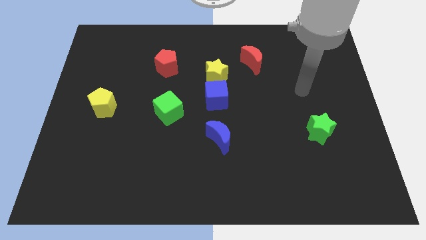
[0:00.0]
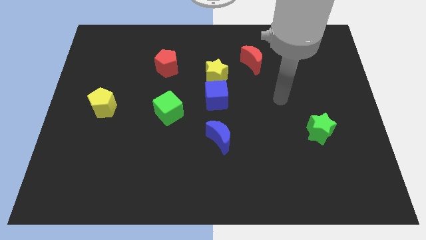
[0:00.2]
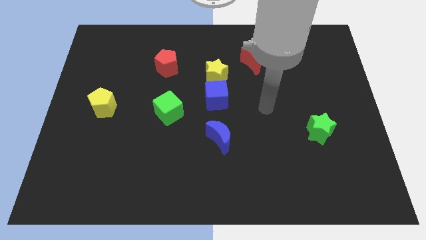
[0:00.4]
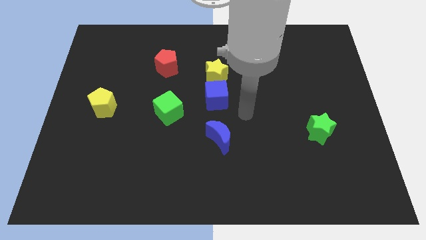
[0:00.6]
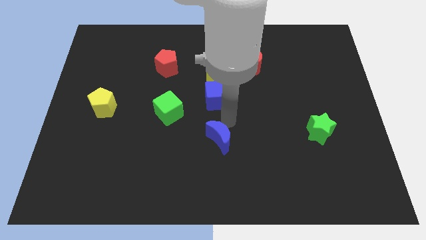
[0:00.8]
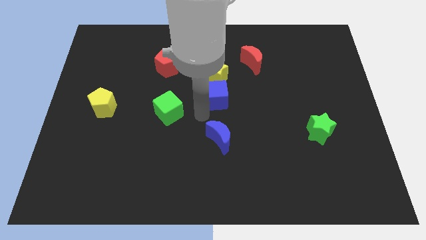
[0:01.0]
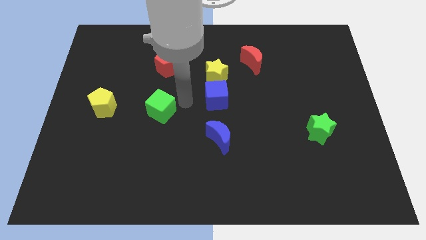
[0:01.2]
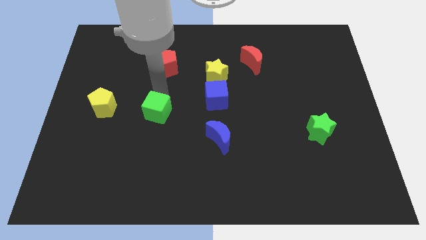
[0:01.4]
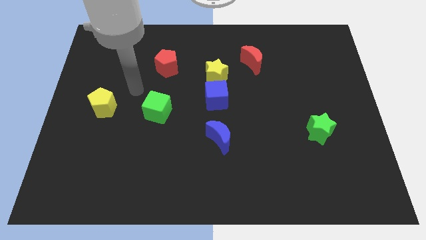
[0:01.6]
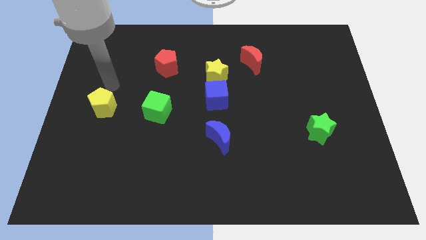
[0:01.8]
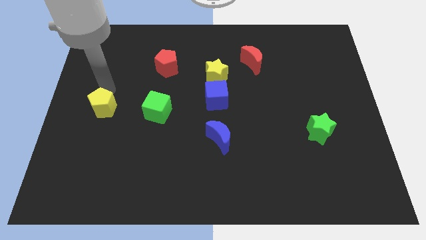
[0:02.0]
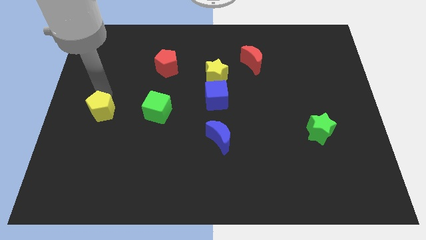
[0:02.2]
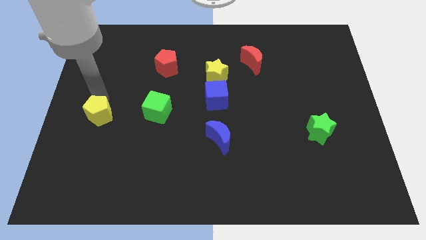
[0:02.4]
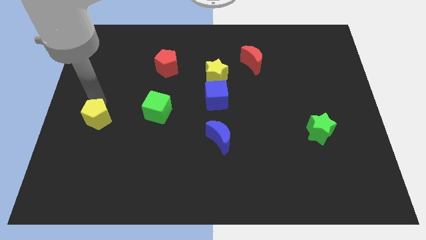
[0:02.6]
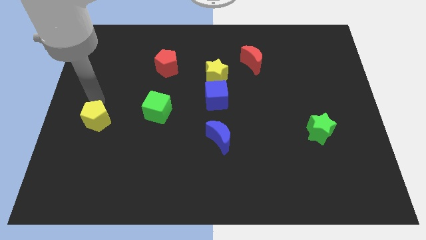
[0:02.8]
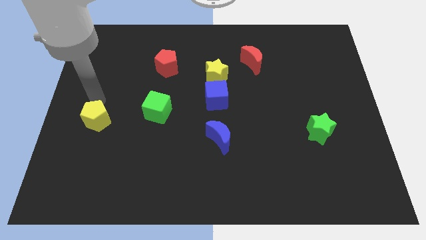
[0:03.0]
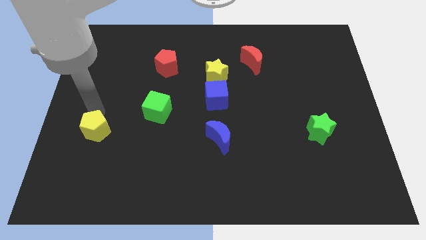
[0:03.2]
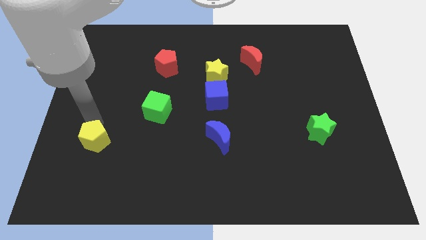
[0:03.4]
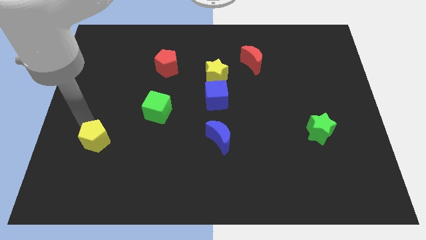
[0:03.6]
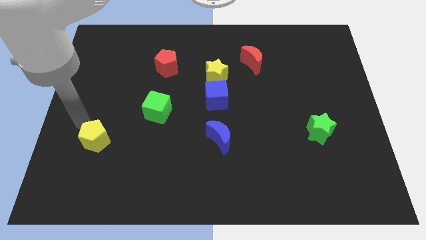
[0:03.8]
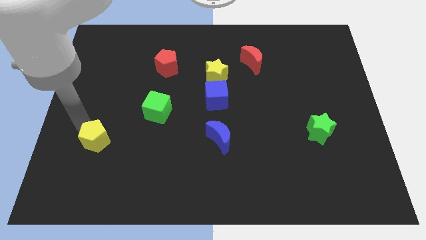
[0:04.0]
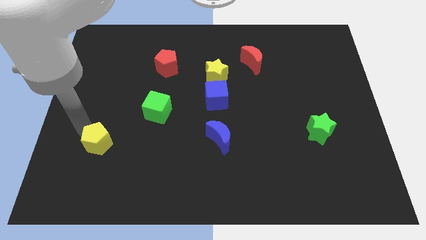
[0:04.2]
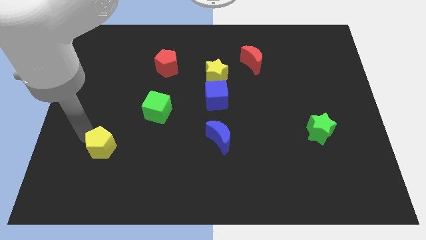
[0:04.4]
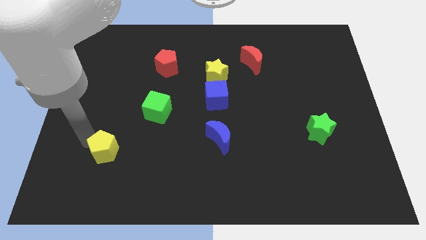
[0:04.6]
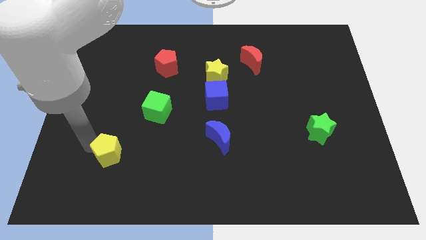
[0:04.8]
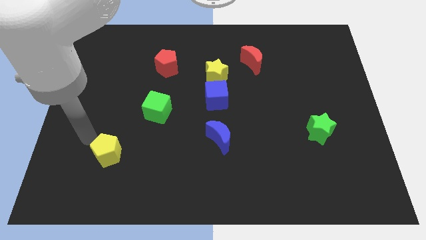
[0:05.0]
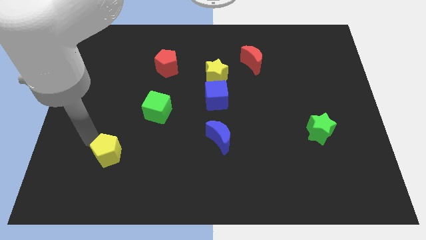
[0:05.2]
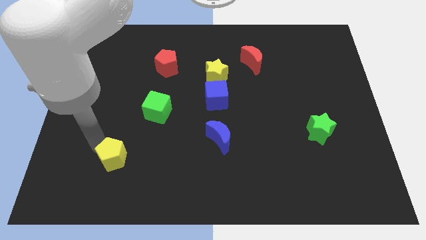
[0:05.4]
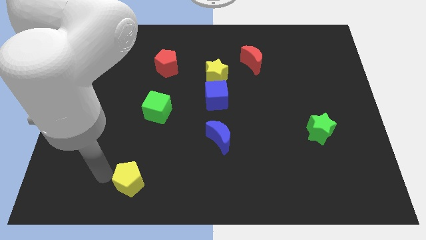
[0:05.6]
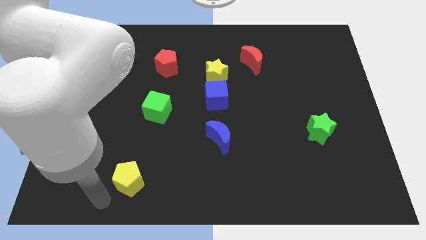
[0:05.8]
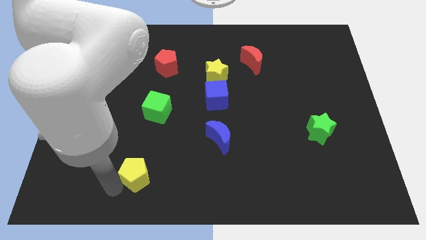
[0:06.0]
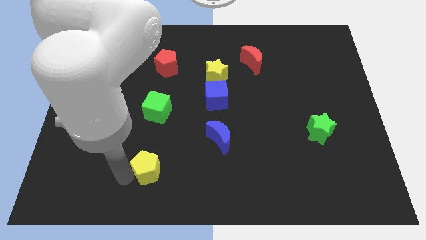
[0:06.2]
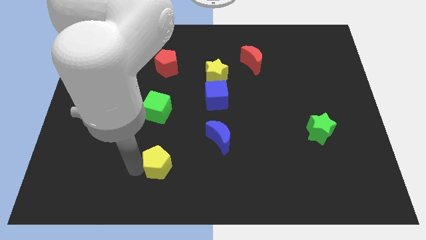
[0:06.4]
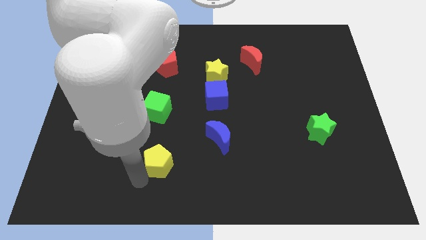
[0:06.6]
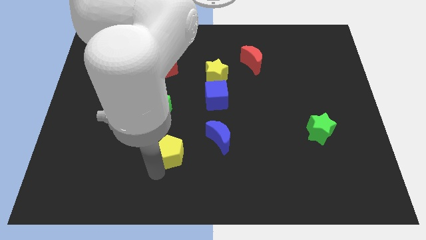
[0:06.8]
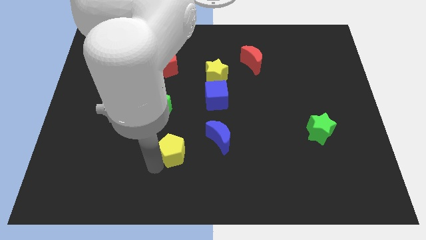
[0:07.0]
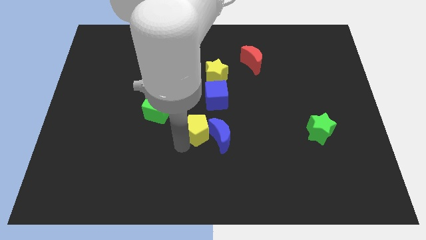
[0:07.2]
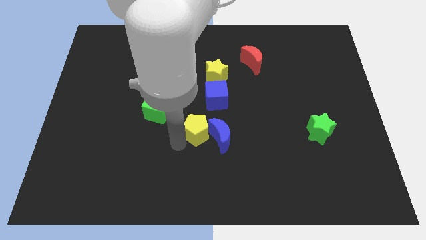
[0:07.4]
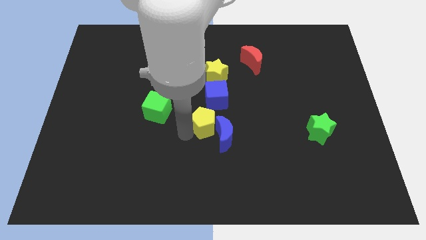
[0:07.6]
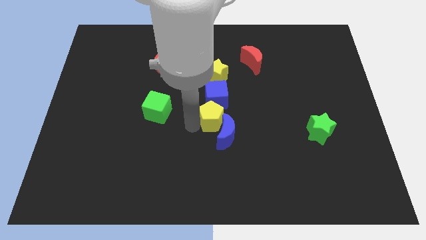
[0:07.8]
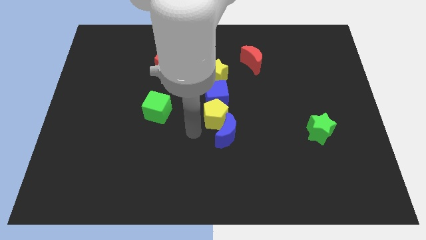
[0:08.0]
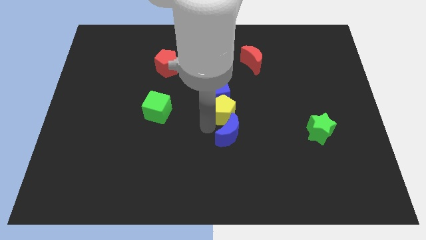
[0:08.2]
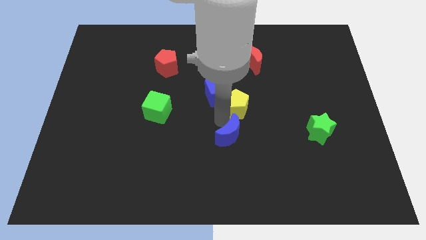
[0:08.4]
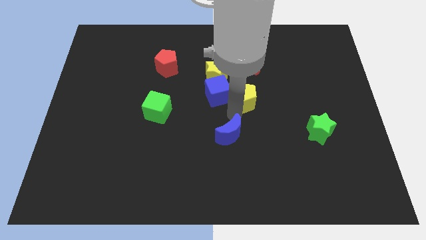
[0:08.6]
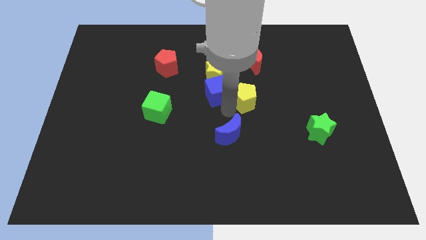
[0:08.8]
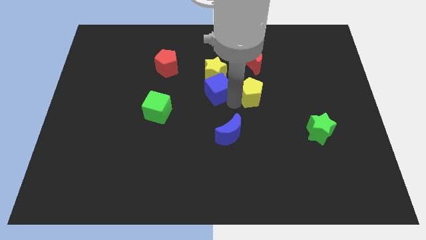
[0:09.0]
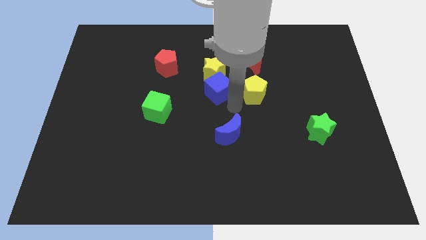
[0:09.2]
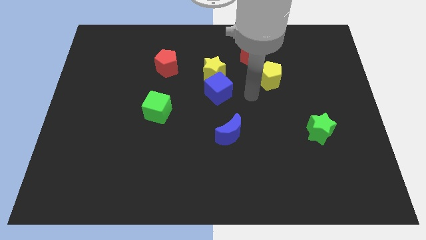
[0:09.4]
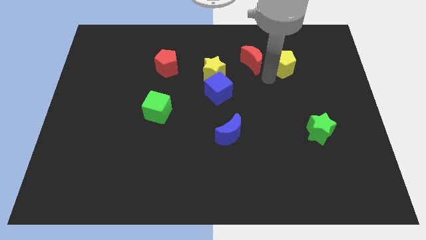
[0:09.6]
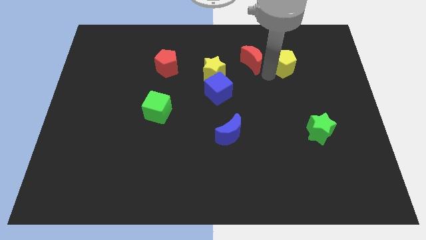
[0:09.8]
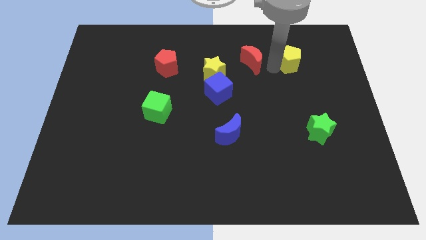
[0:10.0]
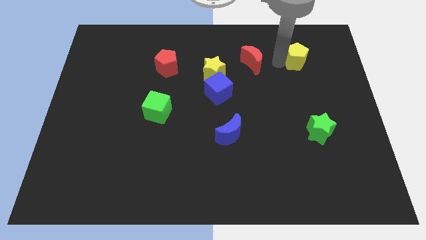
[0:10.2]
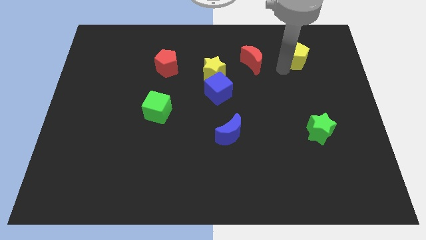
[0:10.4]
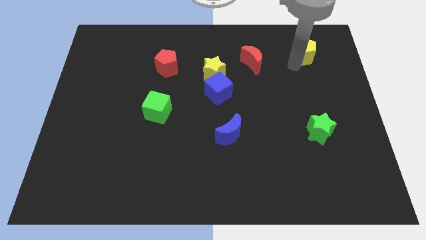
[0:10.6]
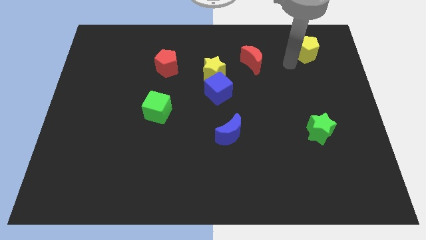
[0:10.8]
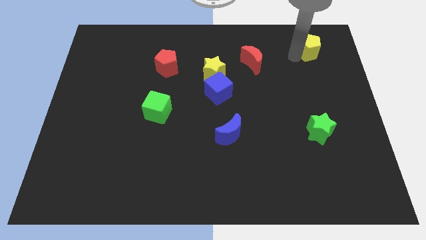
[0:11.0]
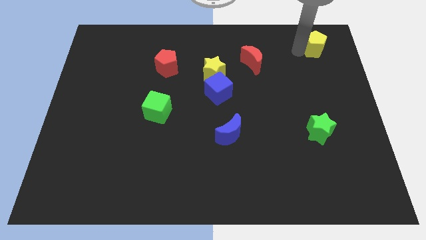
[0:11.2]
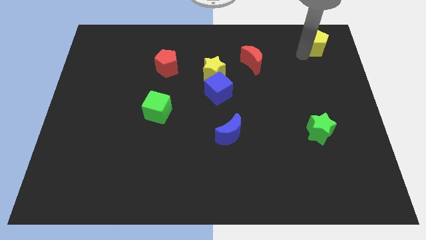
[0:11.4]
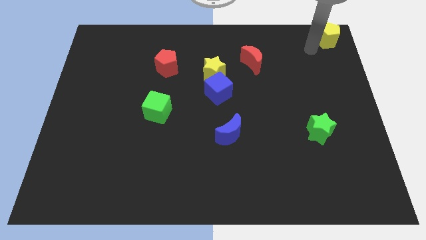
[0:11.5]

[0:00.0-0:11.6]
put the yellow pentagon to the top right corner

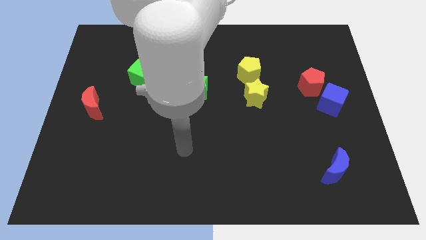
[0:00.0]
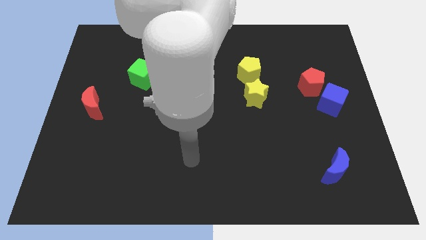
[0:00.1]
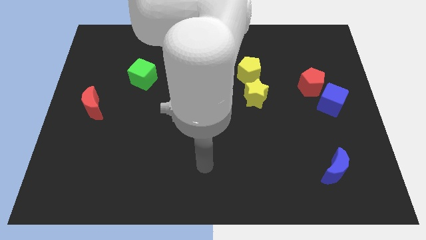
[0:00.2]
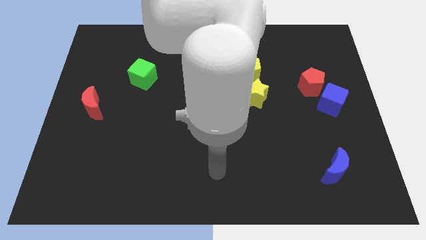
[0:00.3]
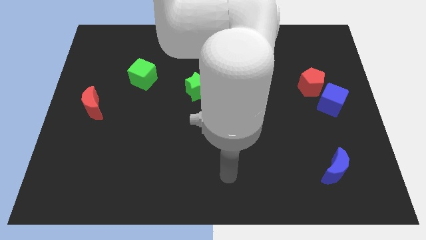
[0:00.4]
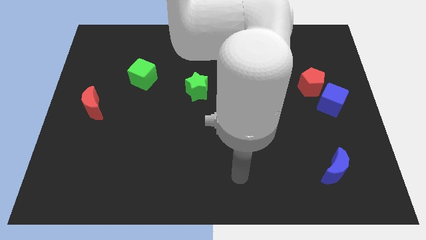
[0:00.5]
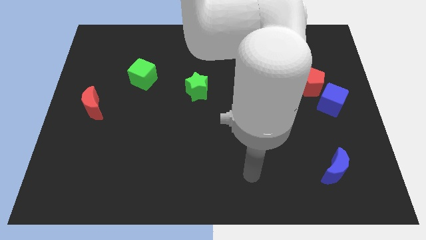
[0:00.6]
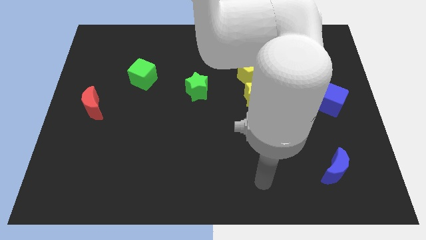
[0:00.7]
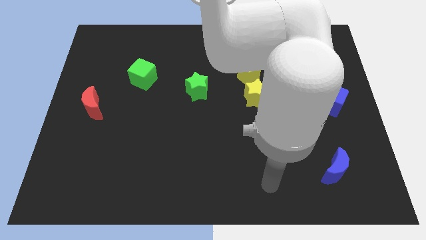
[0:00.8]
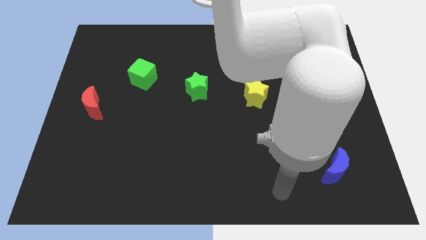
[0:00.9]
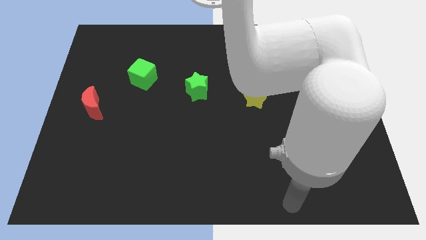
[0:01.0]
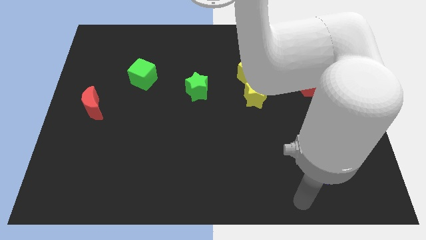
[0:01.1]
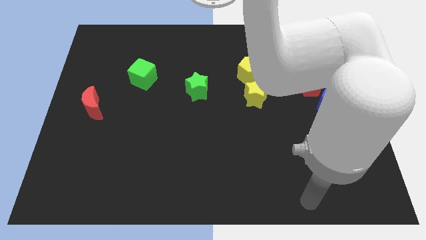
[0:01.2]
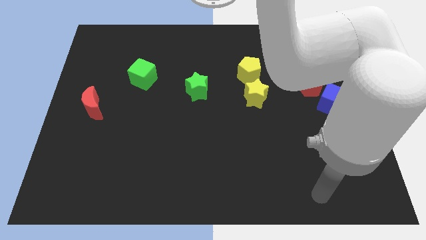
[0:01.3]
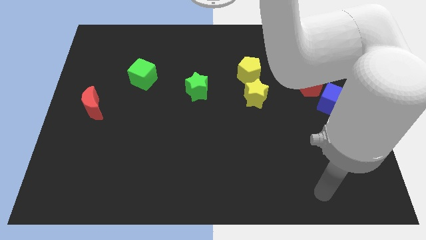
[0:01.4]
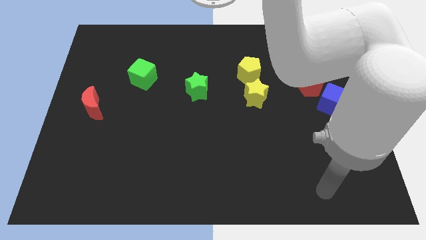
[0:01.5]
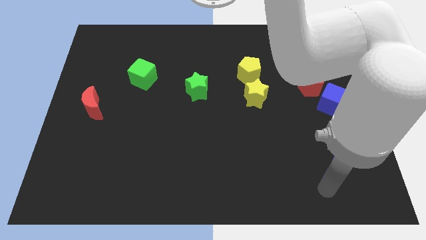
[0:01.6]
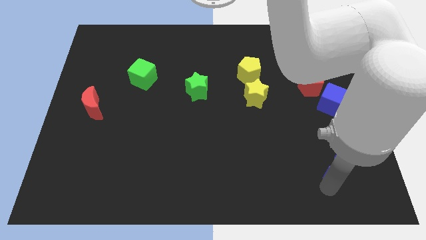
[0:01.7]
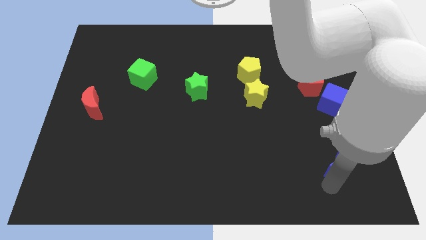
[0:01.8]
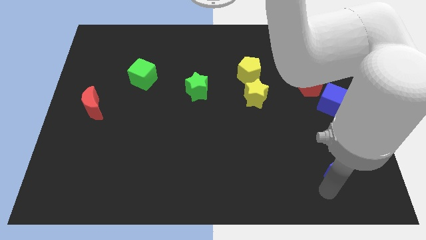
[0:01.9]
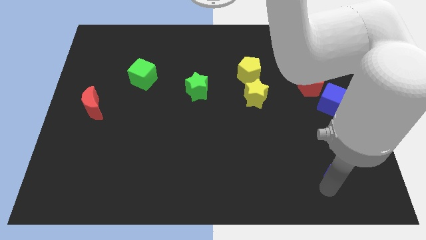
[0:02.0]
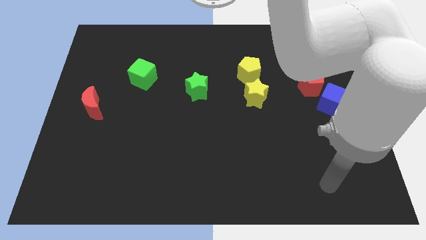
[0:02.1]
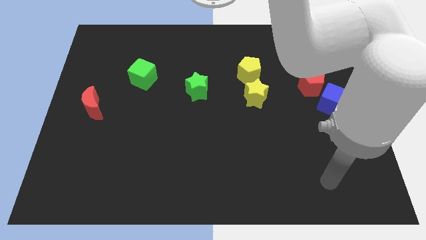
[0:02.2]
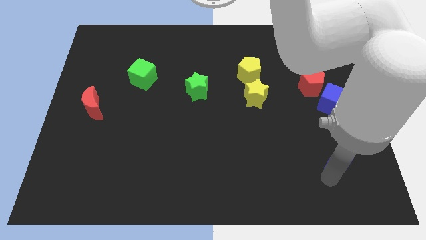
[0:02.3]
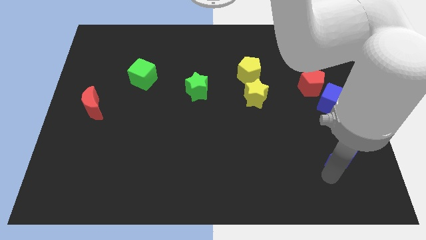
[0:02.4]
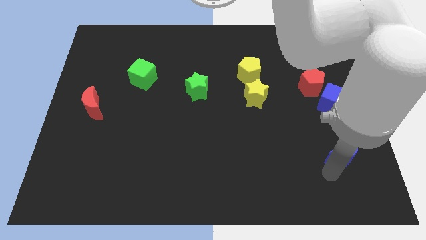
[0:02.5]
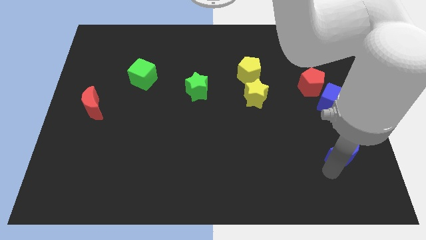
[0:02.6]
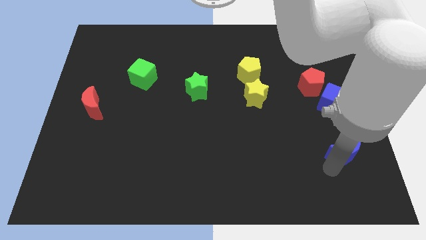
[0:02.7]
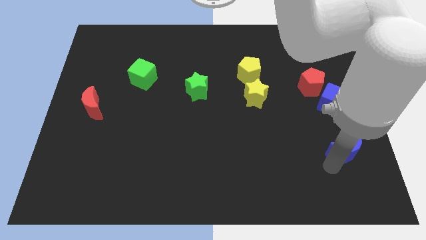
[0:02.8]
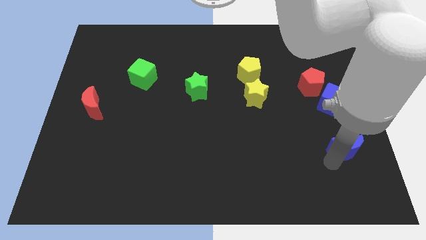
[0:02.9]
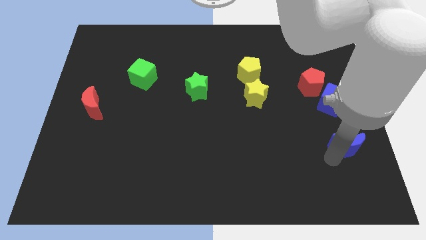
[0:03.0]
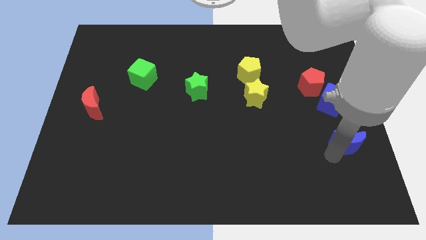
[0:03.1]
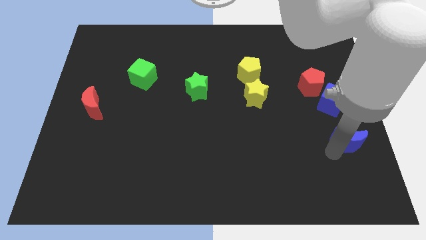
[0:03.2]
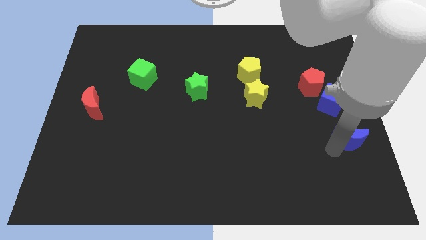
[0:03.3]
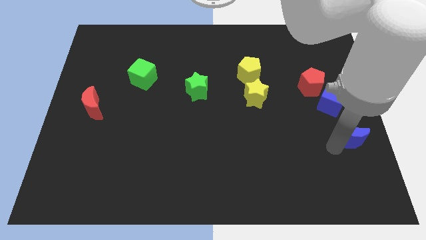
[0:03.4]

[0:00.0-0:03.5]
slide the blue moon to the right side of the board
